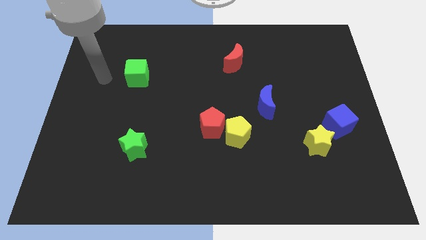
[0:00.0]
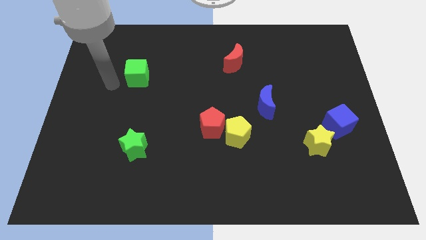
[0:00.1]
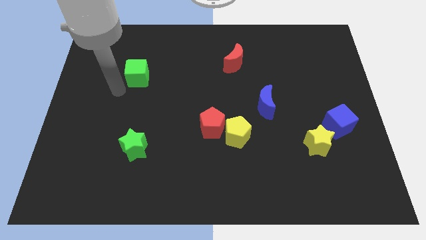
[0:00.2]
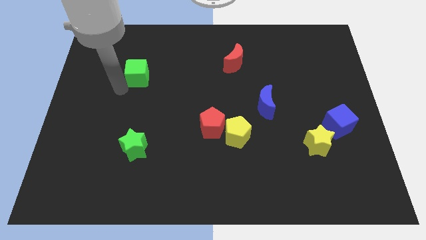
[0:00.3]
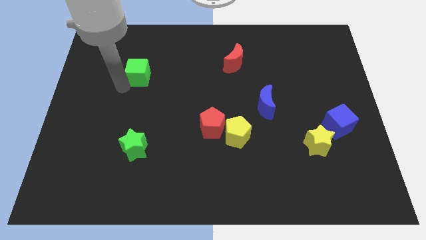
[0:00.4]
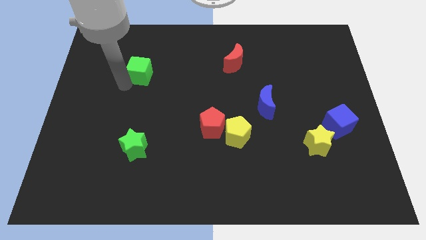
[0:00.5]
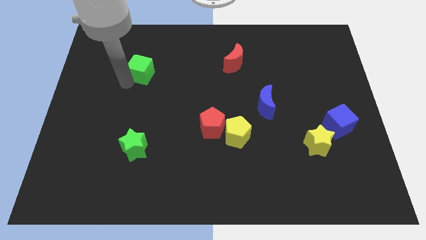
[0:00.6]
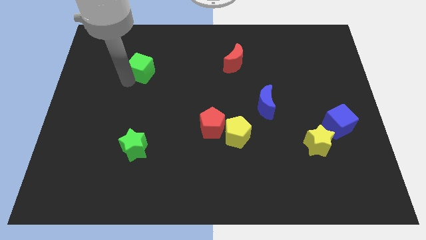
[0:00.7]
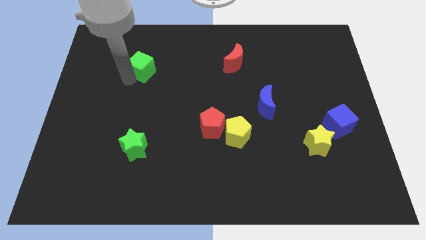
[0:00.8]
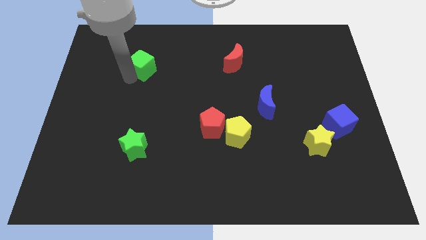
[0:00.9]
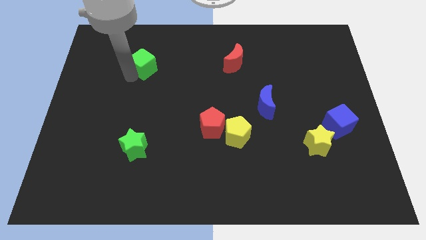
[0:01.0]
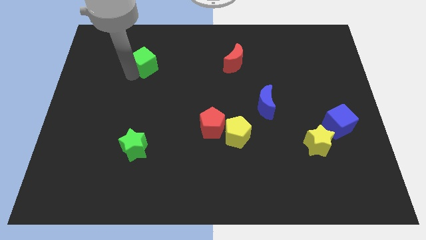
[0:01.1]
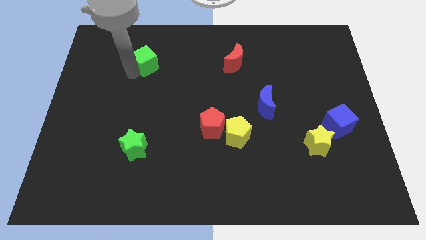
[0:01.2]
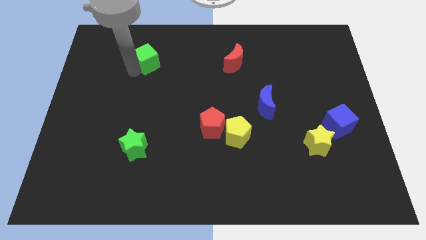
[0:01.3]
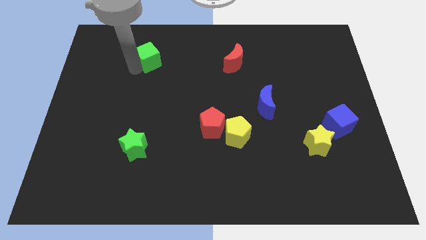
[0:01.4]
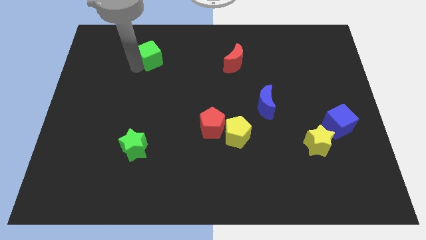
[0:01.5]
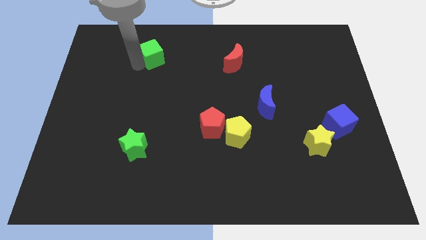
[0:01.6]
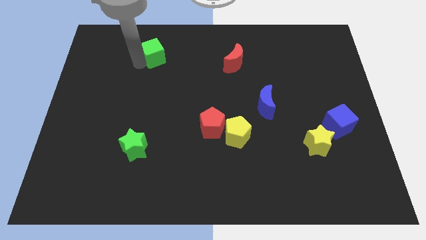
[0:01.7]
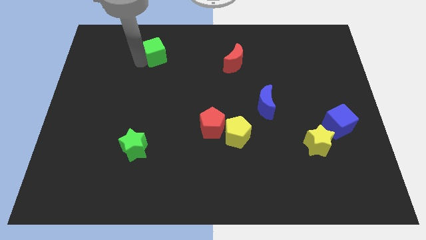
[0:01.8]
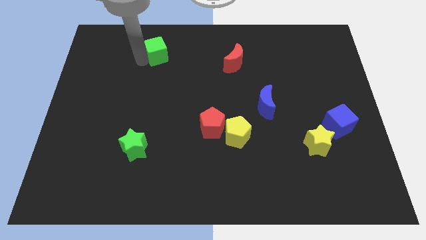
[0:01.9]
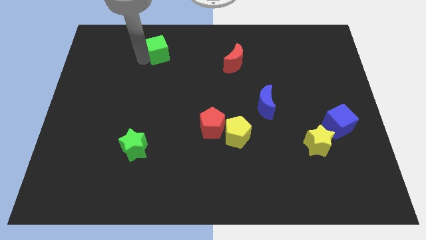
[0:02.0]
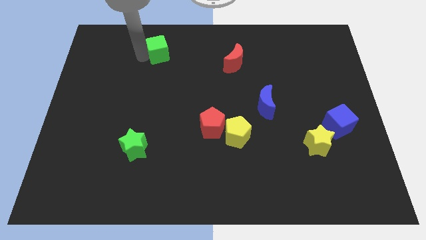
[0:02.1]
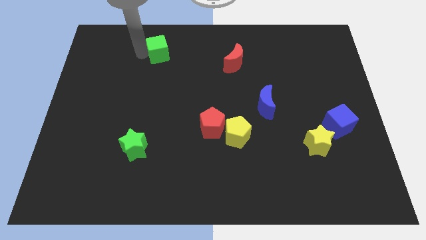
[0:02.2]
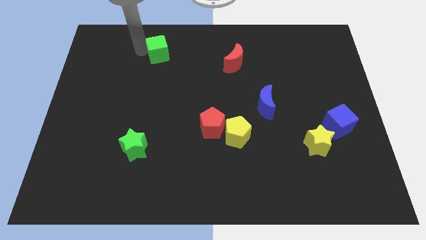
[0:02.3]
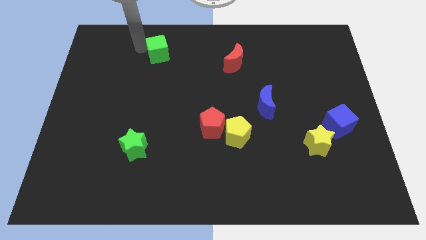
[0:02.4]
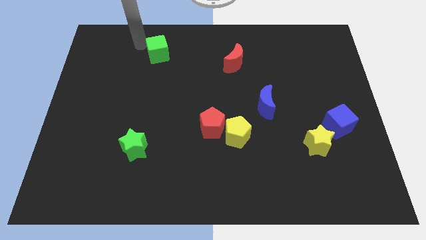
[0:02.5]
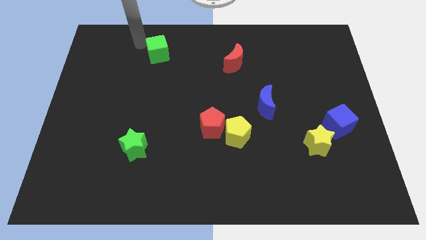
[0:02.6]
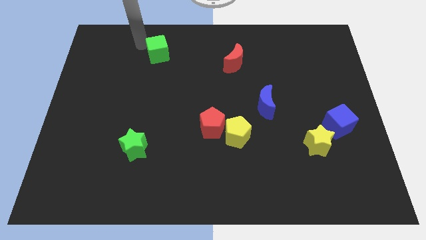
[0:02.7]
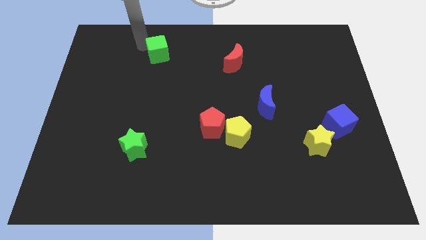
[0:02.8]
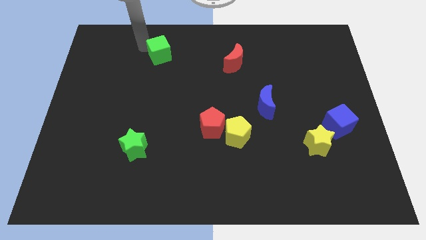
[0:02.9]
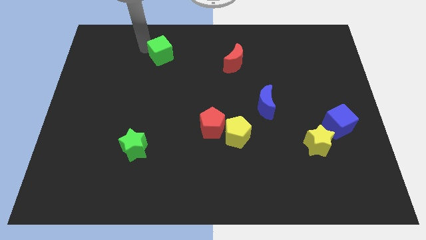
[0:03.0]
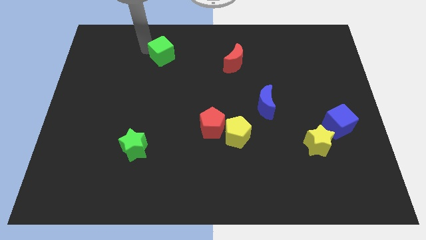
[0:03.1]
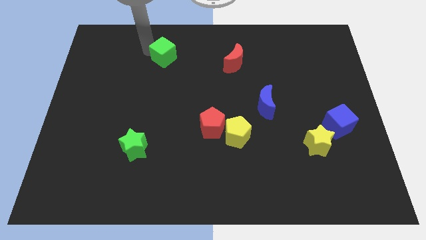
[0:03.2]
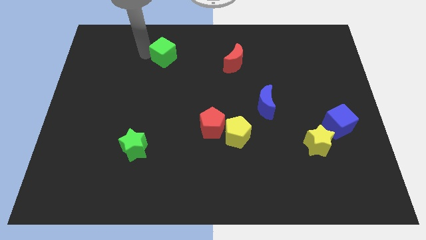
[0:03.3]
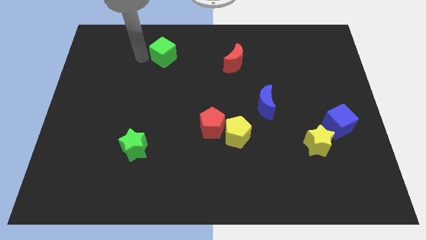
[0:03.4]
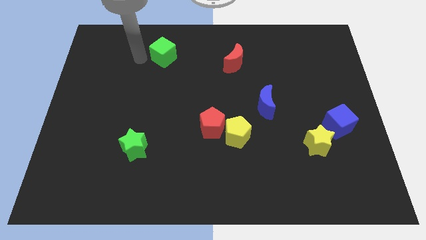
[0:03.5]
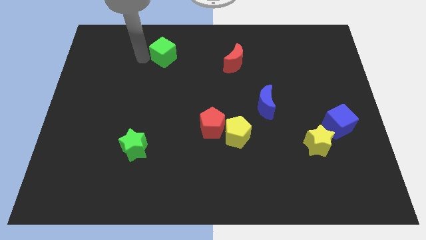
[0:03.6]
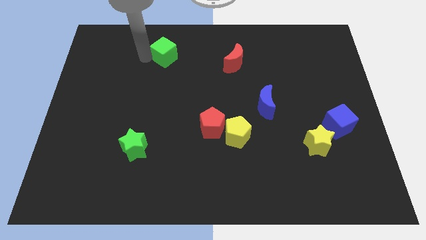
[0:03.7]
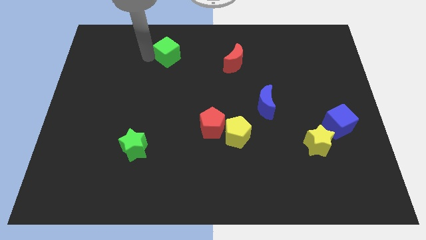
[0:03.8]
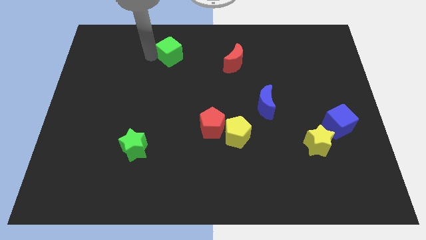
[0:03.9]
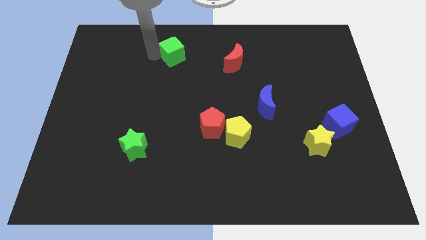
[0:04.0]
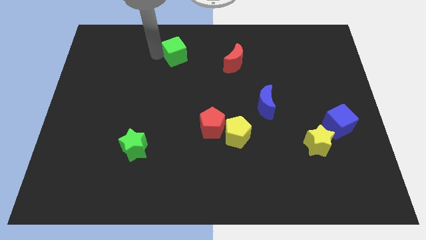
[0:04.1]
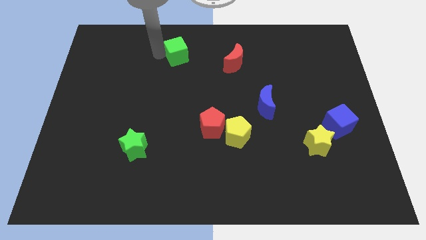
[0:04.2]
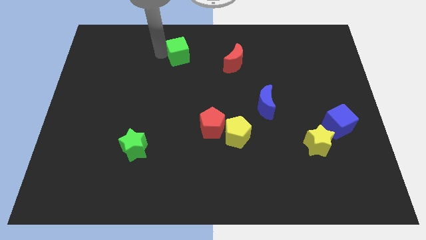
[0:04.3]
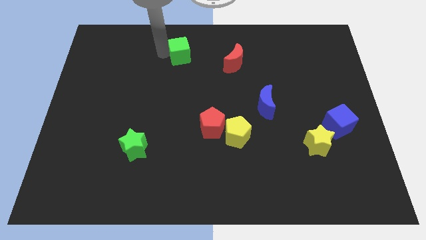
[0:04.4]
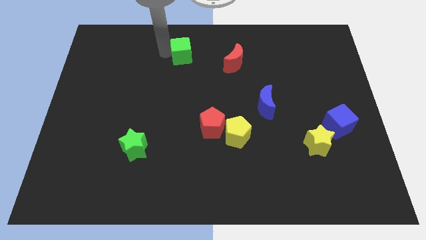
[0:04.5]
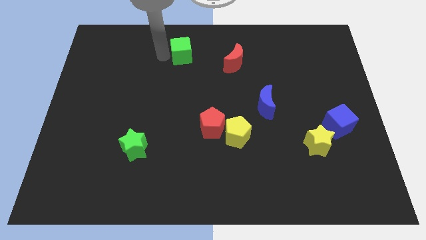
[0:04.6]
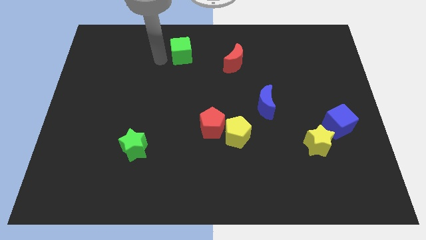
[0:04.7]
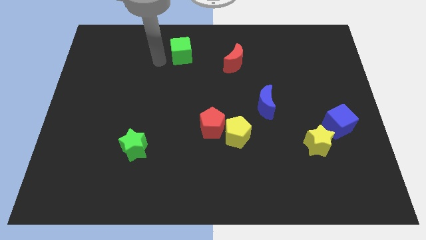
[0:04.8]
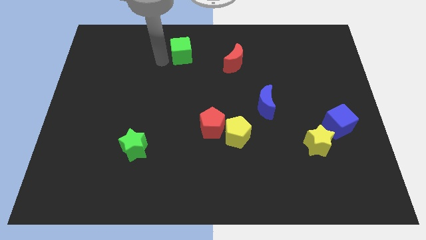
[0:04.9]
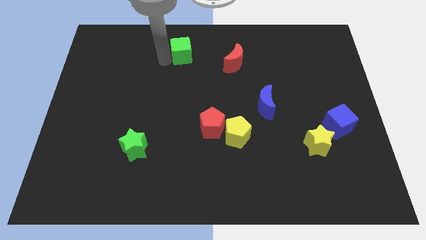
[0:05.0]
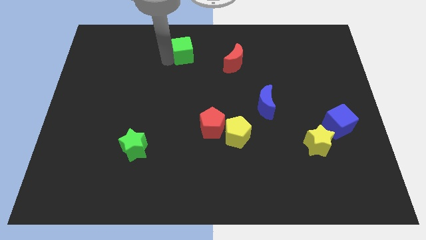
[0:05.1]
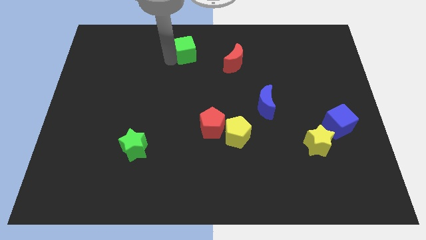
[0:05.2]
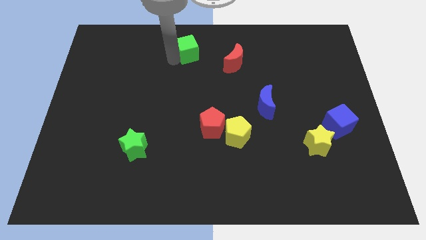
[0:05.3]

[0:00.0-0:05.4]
push the green cube to the towards your base
